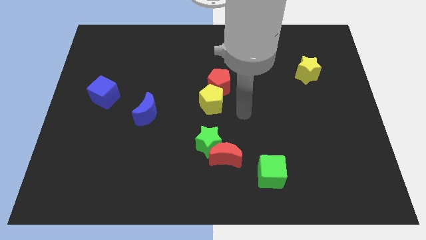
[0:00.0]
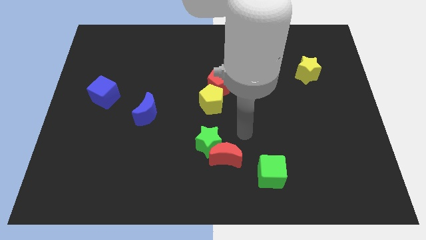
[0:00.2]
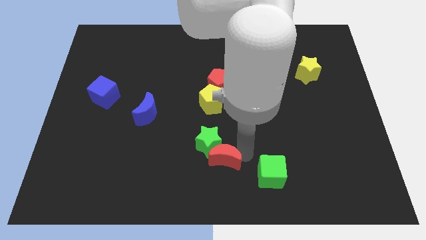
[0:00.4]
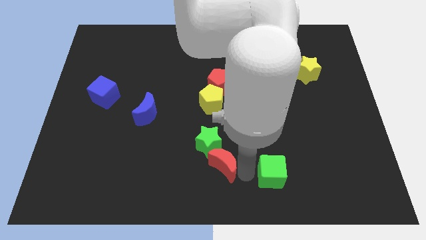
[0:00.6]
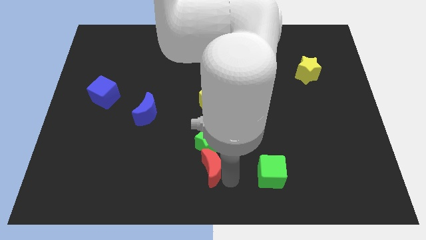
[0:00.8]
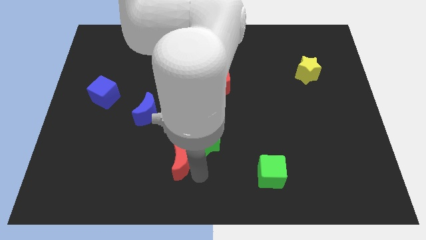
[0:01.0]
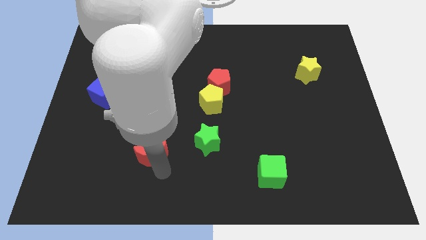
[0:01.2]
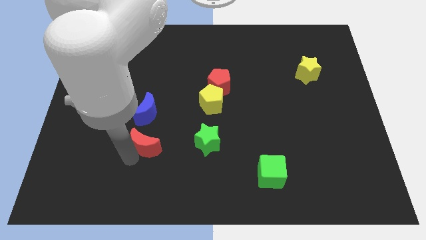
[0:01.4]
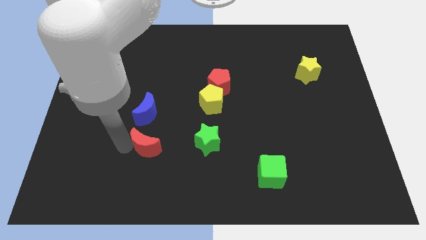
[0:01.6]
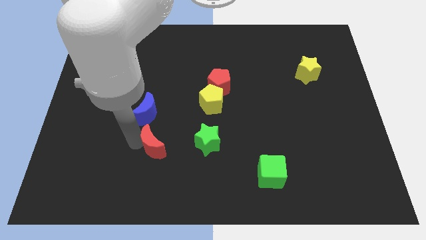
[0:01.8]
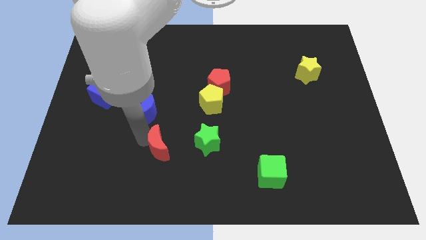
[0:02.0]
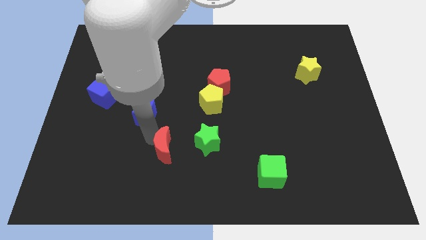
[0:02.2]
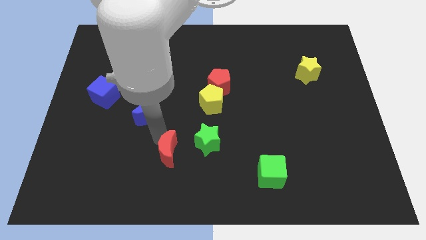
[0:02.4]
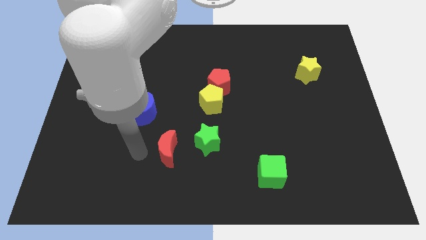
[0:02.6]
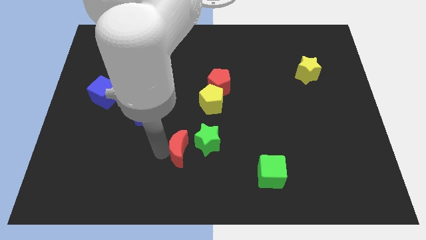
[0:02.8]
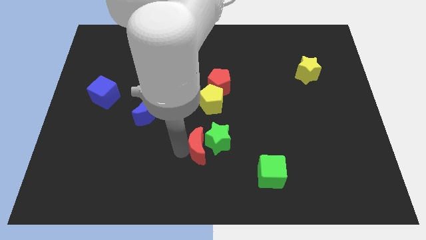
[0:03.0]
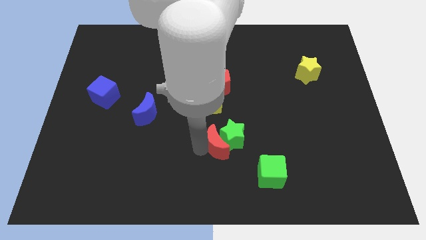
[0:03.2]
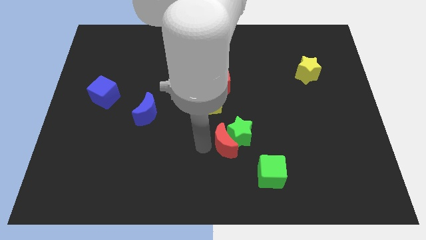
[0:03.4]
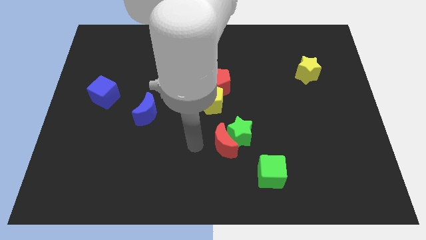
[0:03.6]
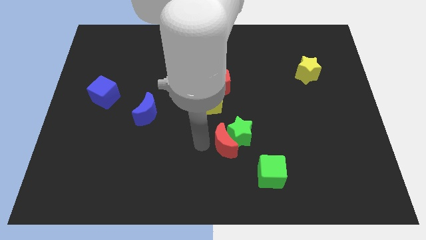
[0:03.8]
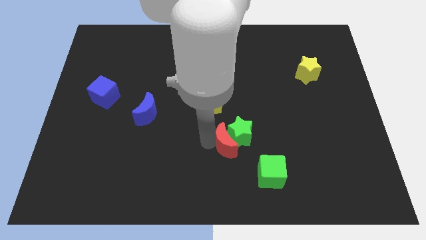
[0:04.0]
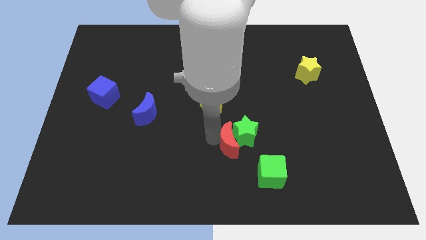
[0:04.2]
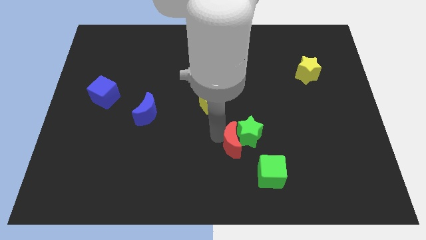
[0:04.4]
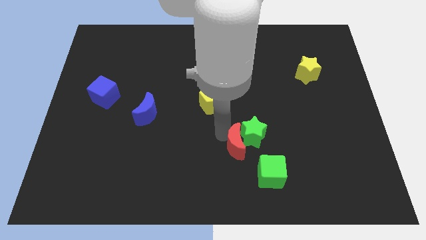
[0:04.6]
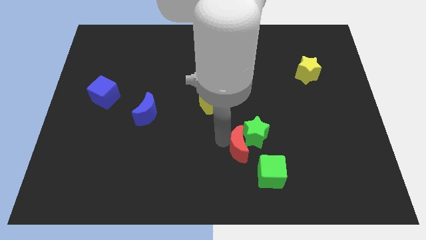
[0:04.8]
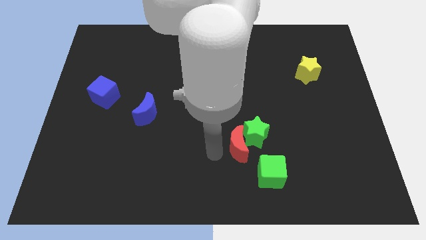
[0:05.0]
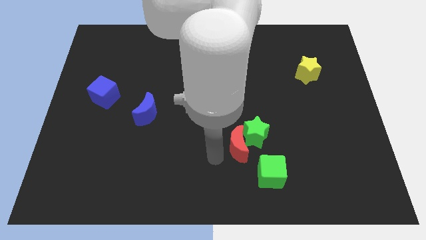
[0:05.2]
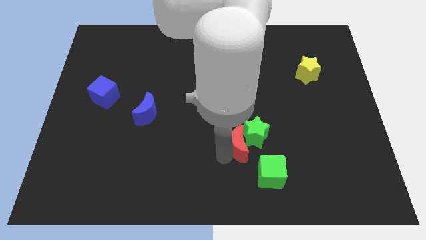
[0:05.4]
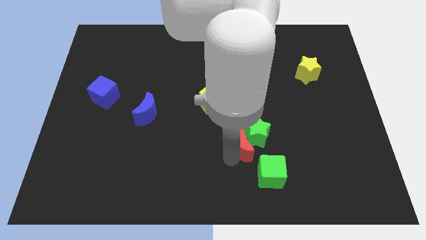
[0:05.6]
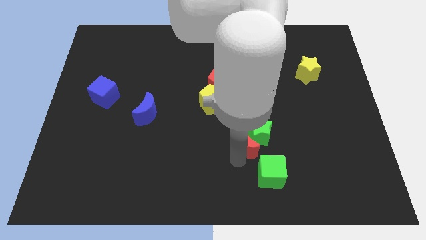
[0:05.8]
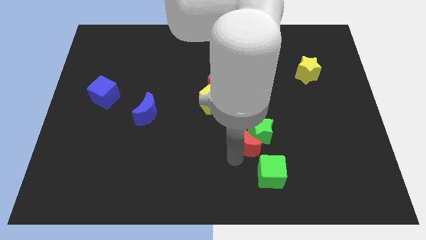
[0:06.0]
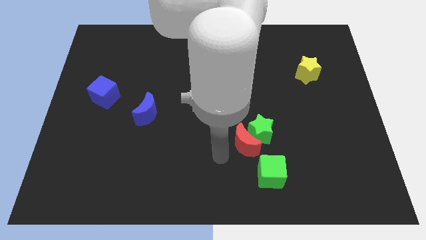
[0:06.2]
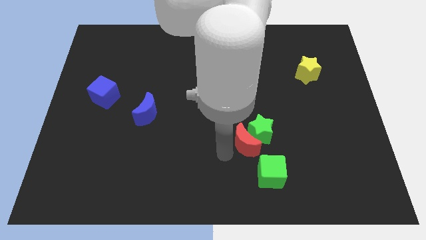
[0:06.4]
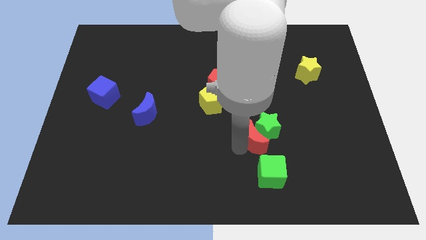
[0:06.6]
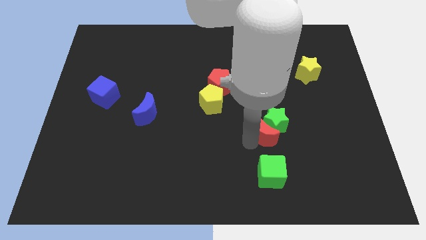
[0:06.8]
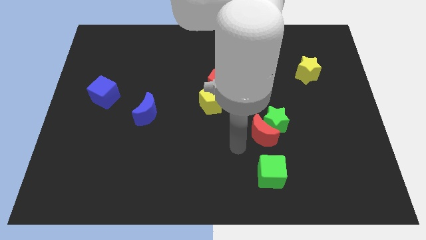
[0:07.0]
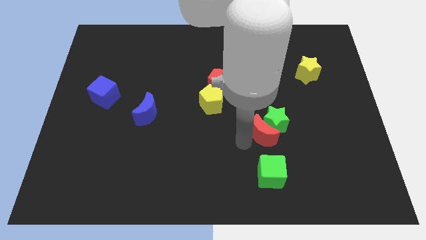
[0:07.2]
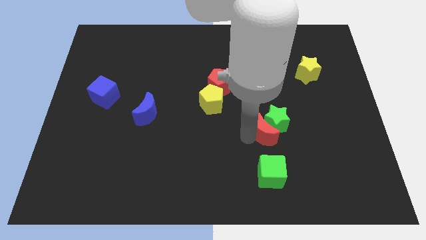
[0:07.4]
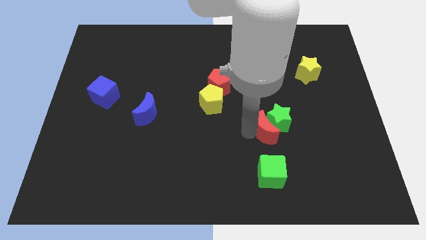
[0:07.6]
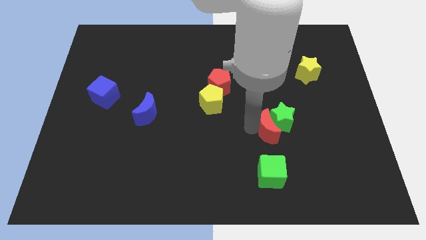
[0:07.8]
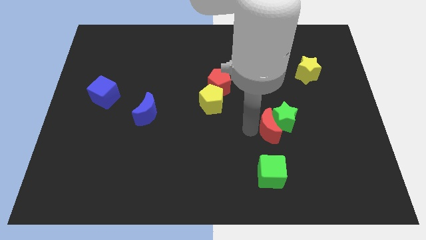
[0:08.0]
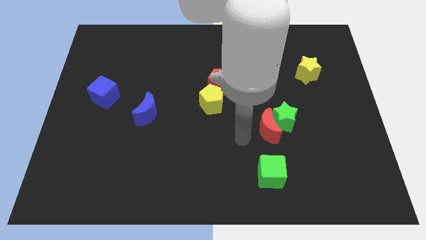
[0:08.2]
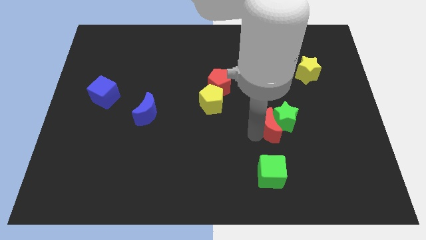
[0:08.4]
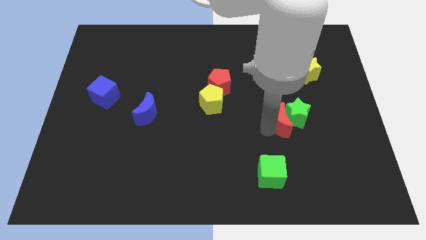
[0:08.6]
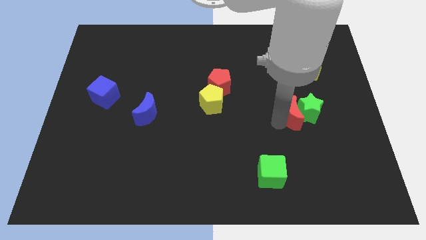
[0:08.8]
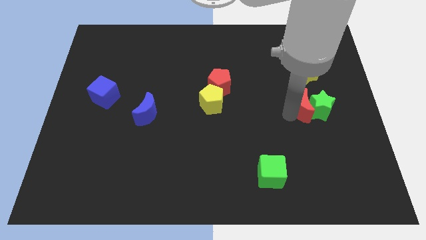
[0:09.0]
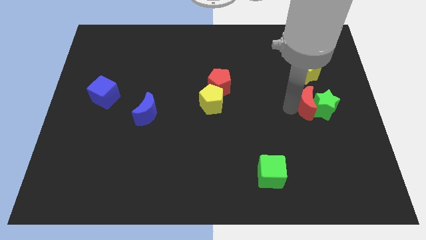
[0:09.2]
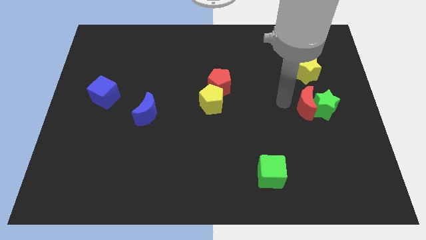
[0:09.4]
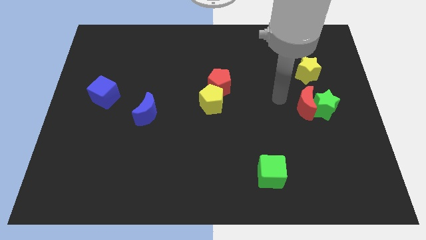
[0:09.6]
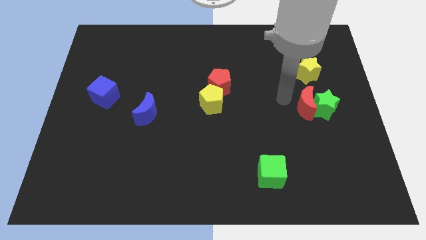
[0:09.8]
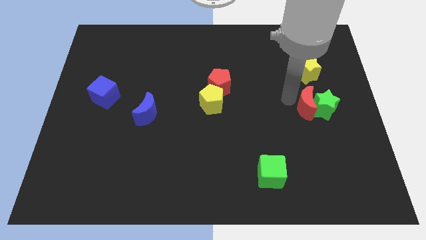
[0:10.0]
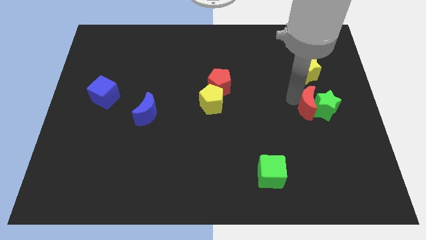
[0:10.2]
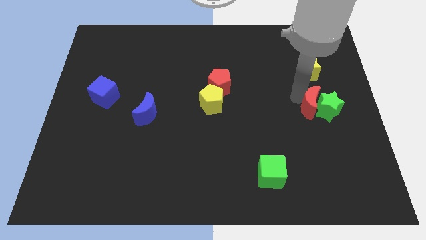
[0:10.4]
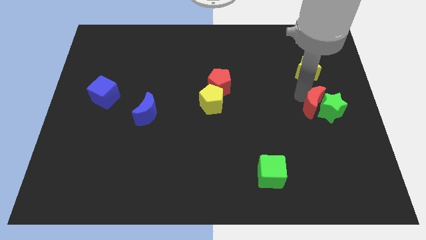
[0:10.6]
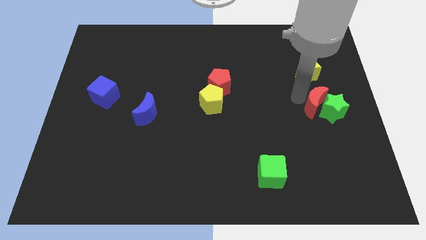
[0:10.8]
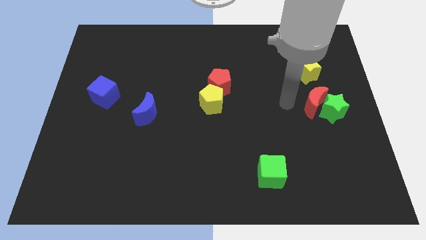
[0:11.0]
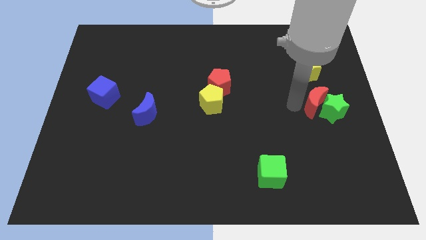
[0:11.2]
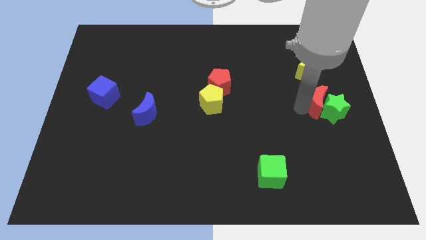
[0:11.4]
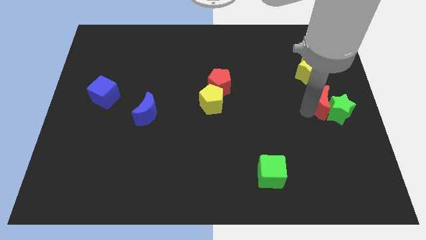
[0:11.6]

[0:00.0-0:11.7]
put the red moon to the center right

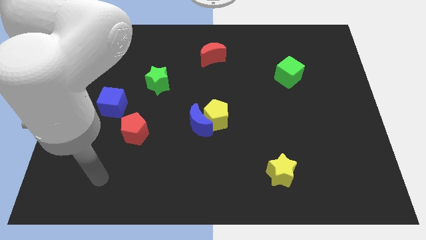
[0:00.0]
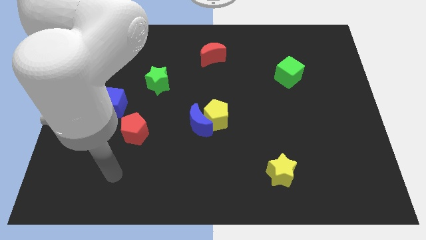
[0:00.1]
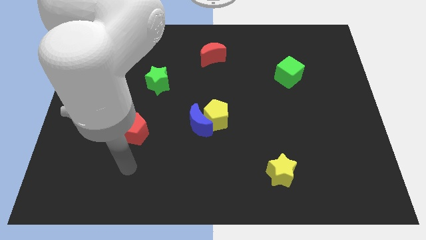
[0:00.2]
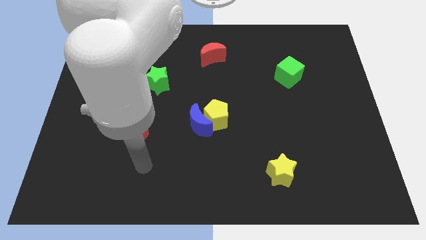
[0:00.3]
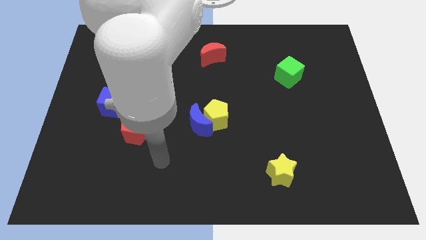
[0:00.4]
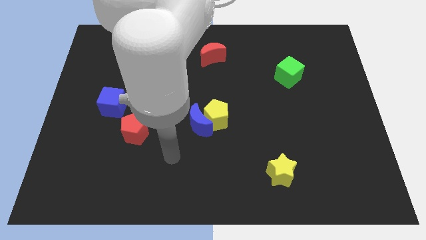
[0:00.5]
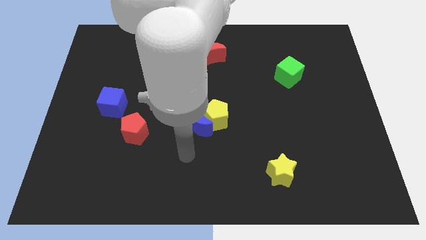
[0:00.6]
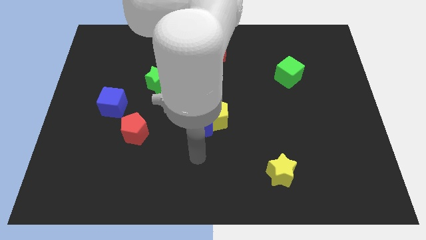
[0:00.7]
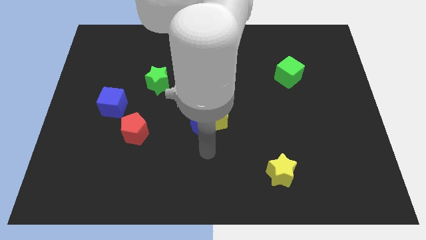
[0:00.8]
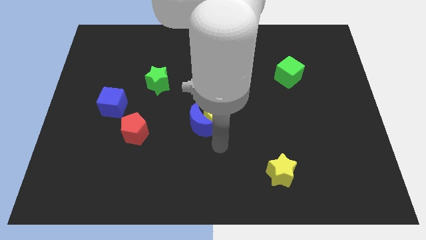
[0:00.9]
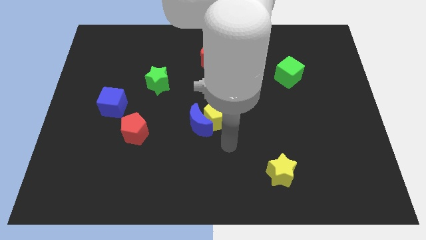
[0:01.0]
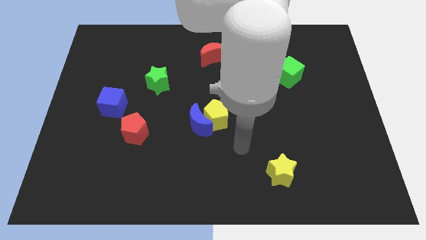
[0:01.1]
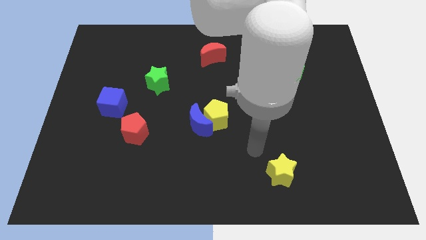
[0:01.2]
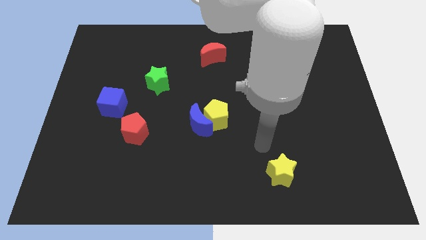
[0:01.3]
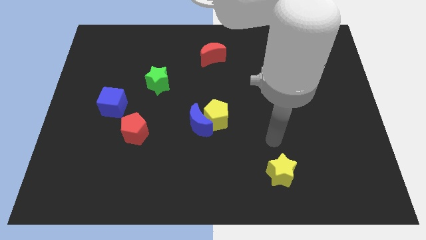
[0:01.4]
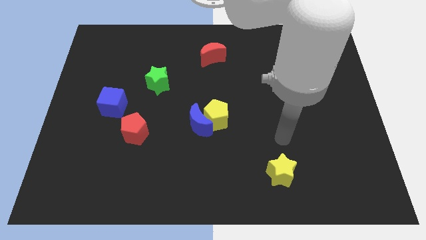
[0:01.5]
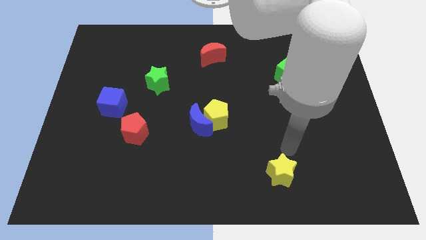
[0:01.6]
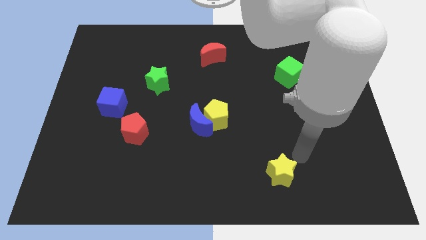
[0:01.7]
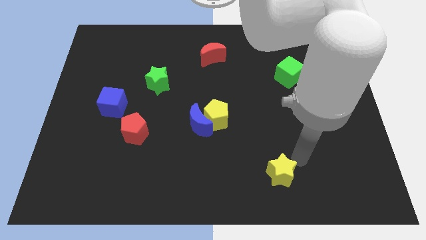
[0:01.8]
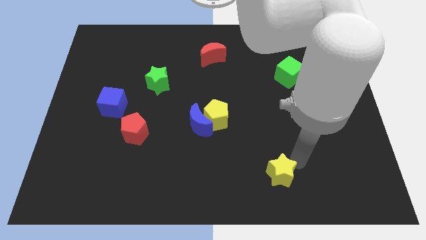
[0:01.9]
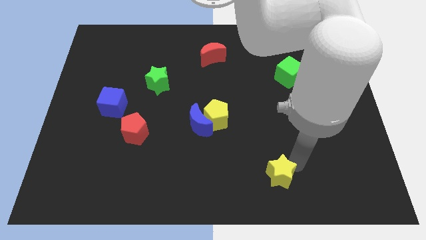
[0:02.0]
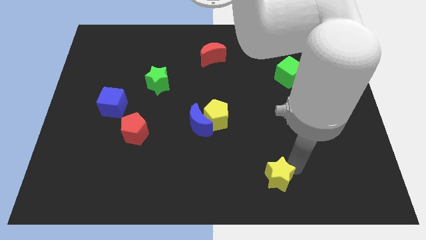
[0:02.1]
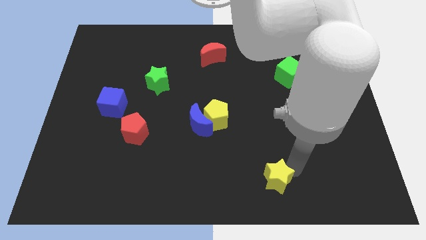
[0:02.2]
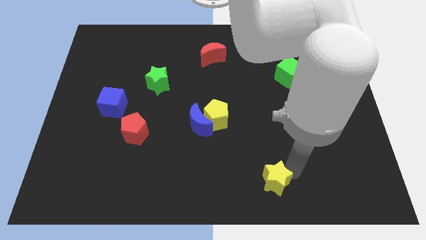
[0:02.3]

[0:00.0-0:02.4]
slide the yellow star to the bottom
